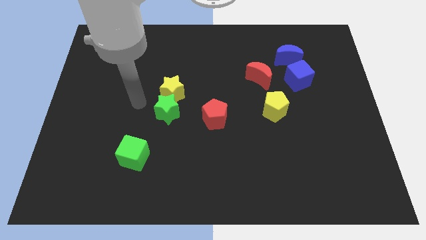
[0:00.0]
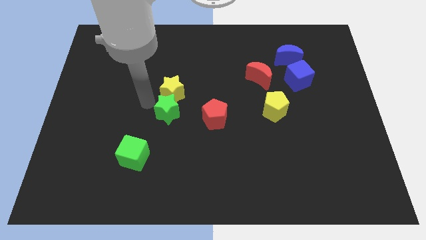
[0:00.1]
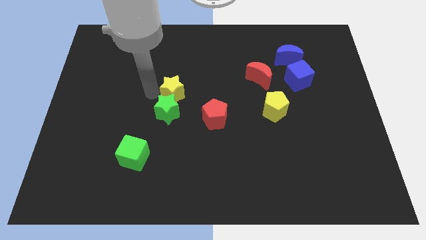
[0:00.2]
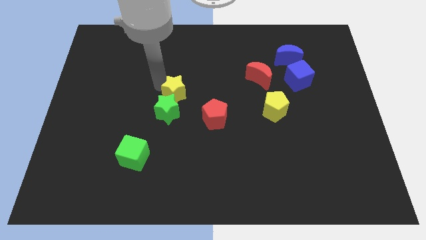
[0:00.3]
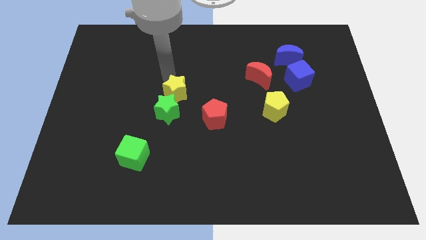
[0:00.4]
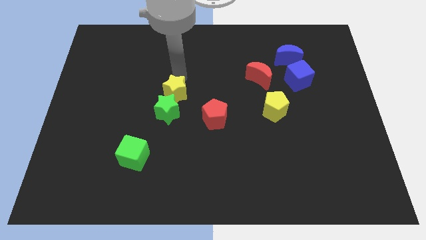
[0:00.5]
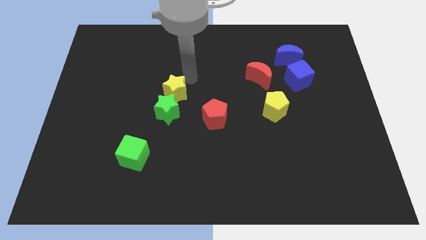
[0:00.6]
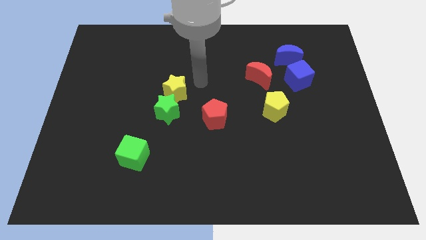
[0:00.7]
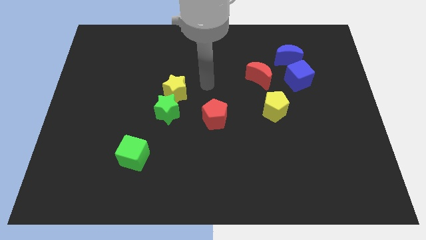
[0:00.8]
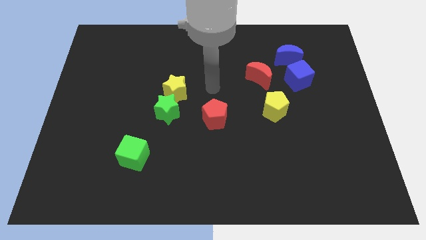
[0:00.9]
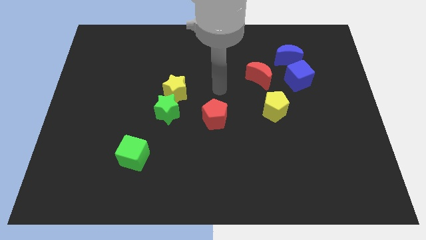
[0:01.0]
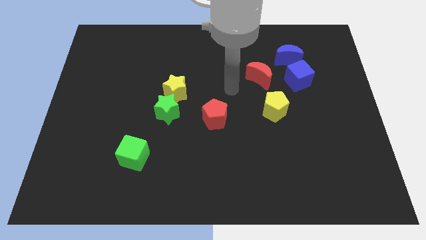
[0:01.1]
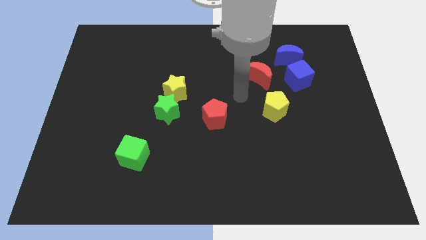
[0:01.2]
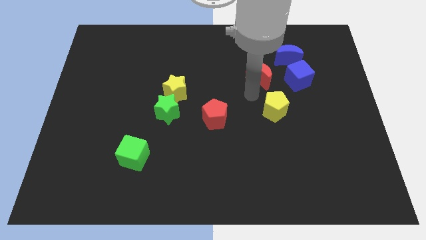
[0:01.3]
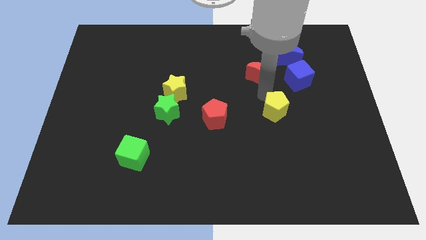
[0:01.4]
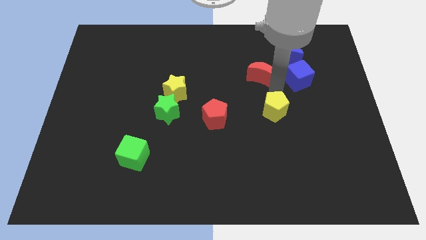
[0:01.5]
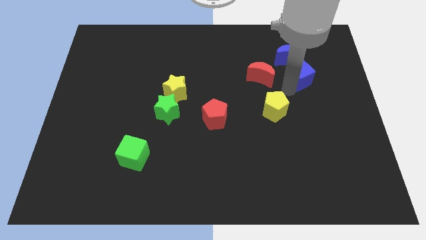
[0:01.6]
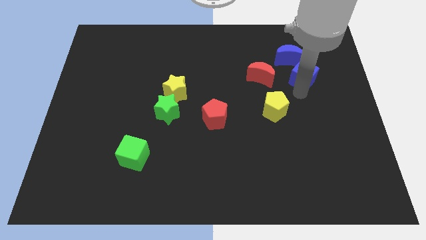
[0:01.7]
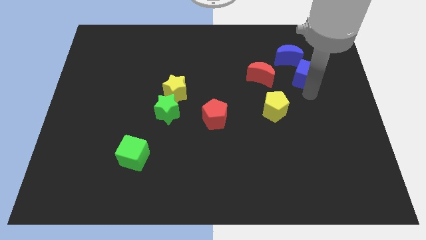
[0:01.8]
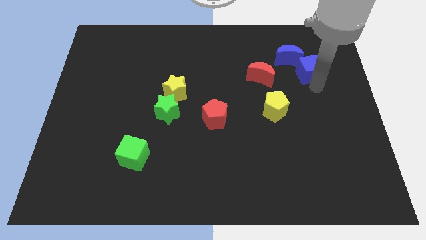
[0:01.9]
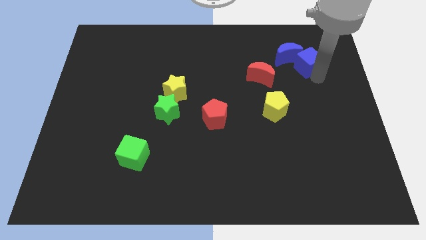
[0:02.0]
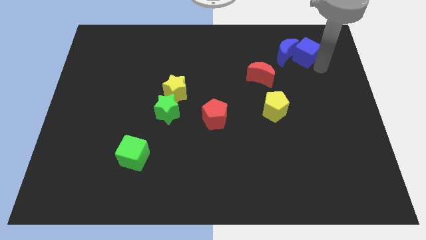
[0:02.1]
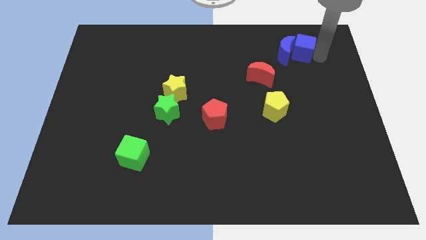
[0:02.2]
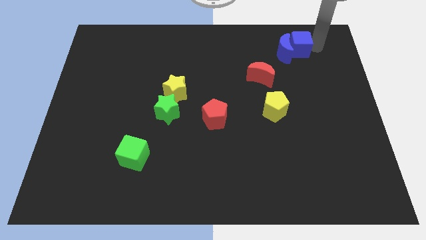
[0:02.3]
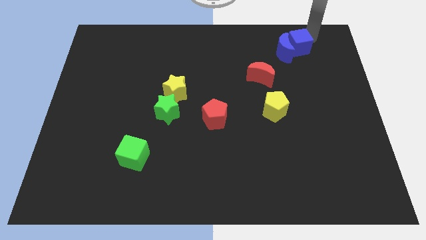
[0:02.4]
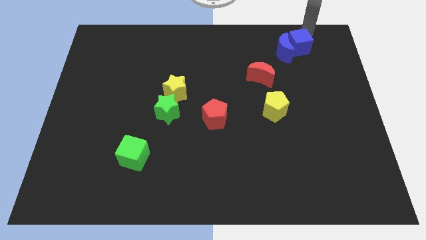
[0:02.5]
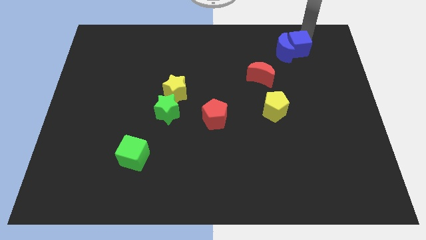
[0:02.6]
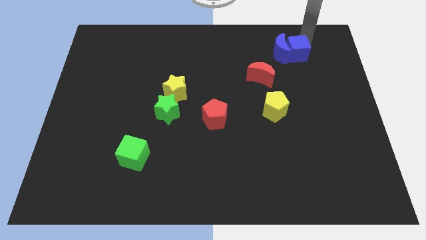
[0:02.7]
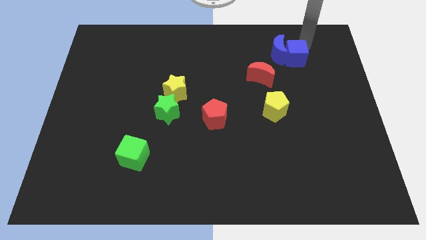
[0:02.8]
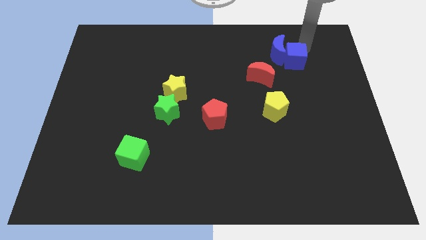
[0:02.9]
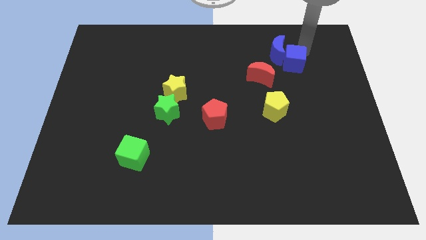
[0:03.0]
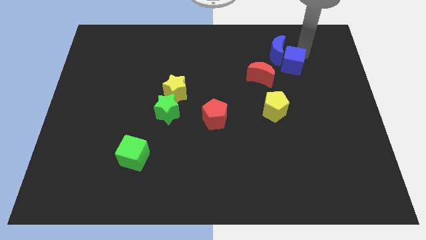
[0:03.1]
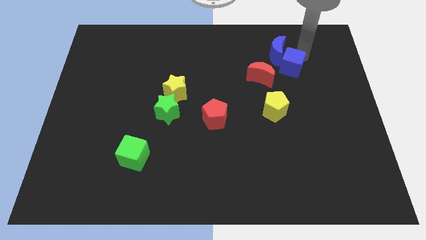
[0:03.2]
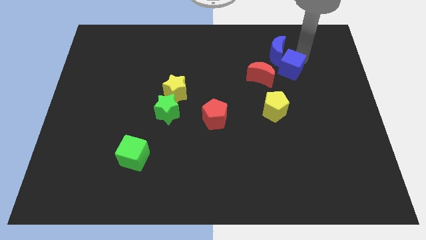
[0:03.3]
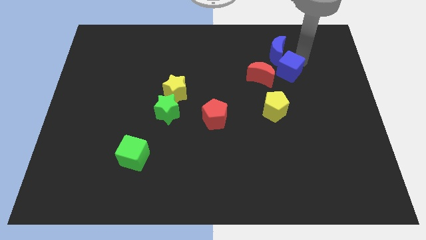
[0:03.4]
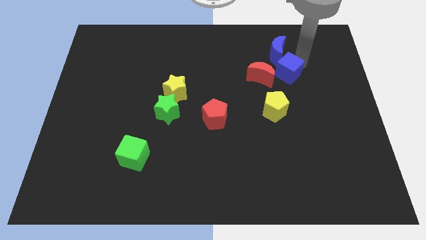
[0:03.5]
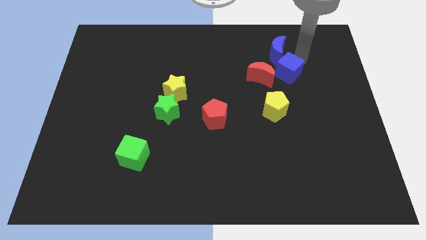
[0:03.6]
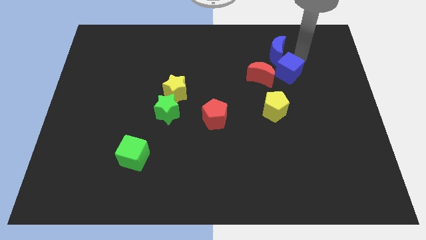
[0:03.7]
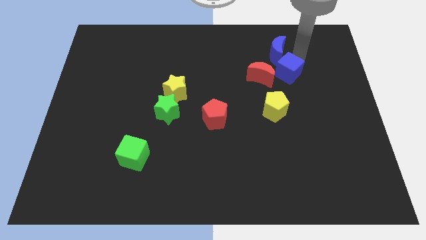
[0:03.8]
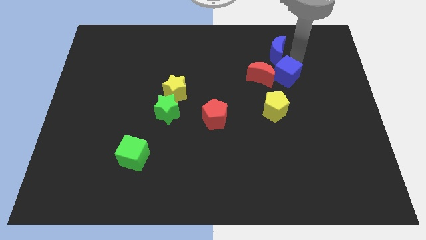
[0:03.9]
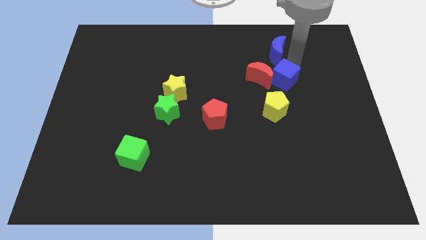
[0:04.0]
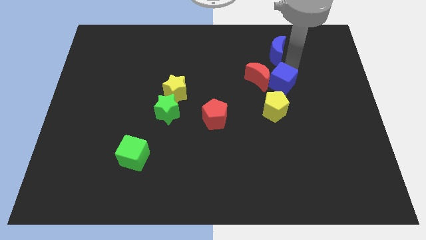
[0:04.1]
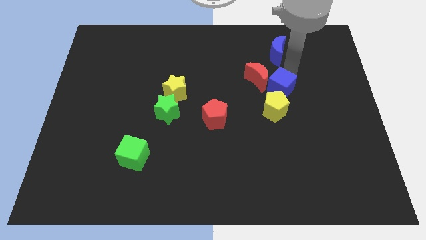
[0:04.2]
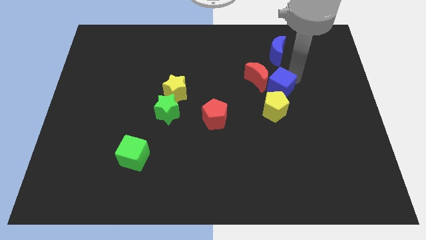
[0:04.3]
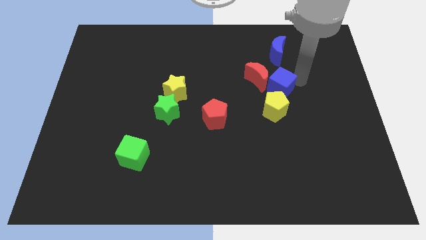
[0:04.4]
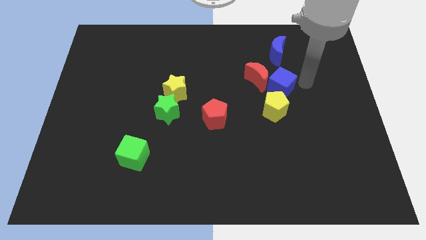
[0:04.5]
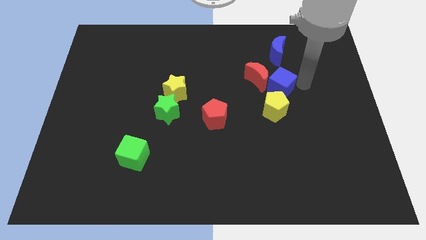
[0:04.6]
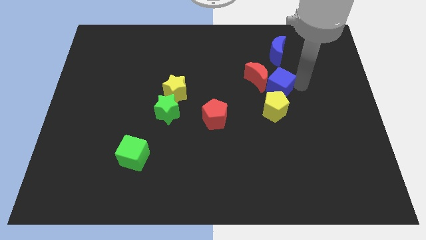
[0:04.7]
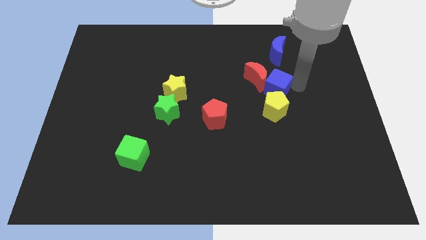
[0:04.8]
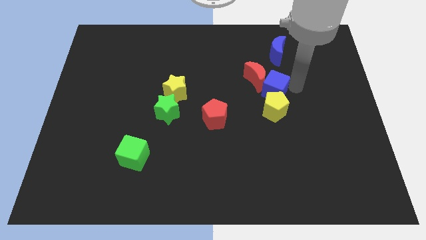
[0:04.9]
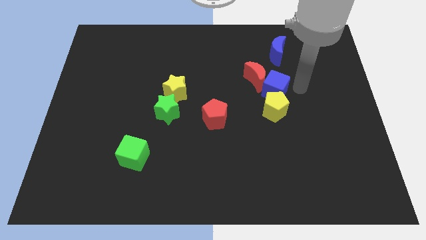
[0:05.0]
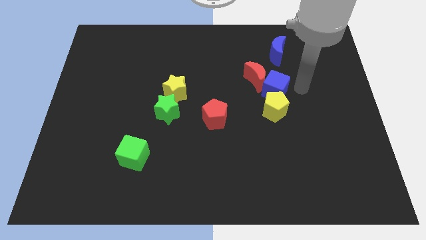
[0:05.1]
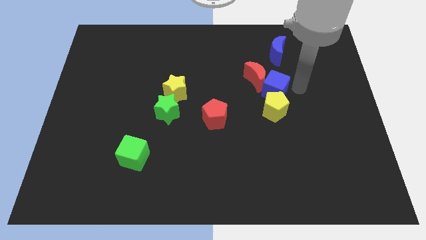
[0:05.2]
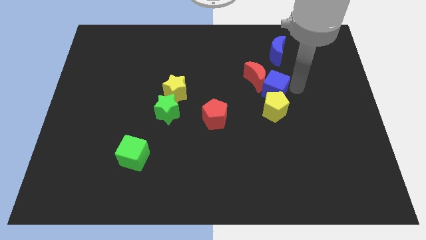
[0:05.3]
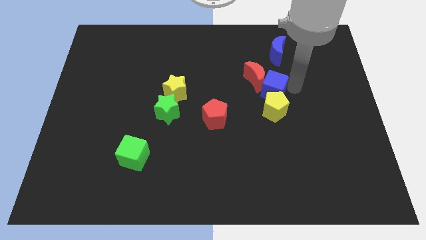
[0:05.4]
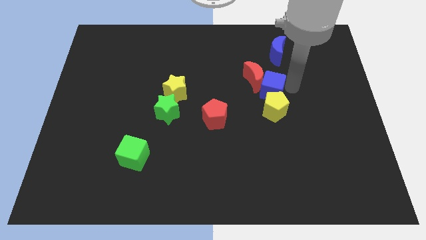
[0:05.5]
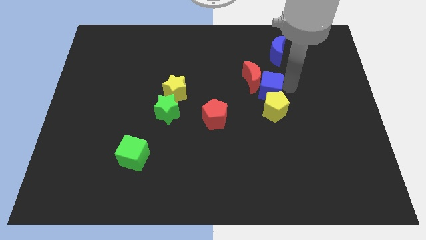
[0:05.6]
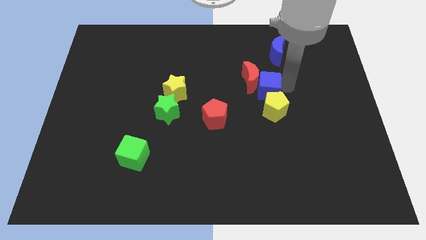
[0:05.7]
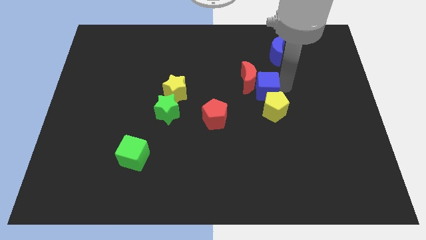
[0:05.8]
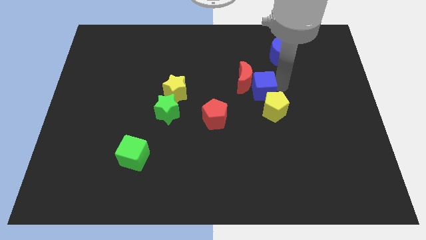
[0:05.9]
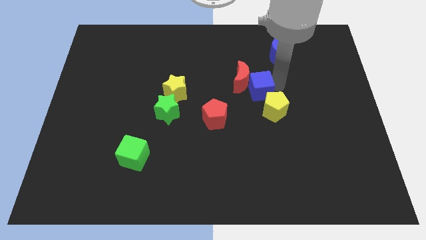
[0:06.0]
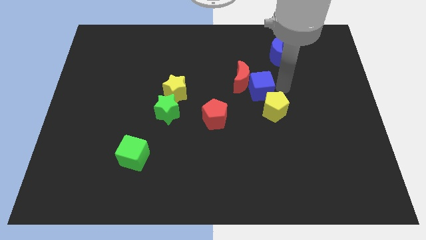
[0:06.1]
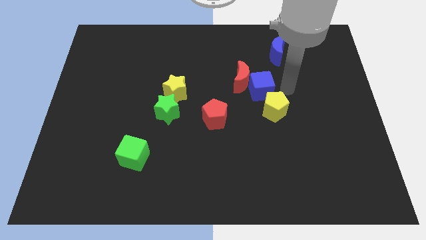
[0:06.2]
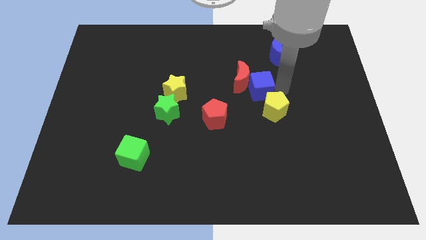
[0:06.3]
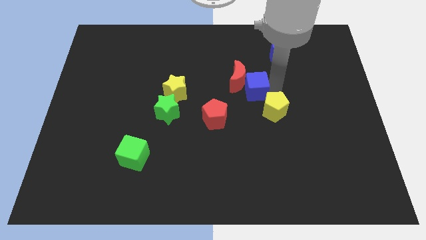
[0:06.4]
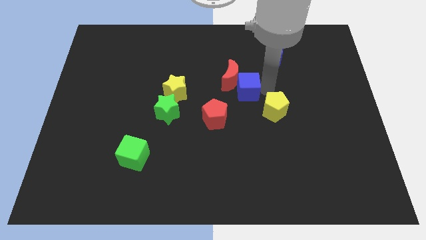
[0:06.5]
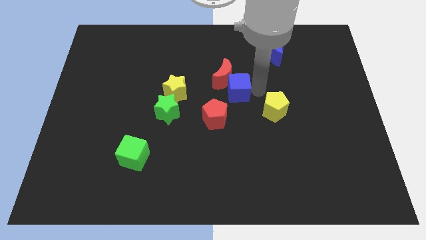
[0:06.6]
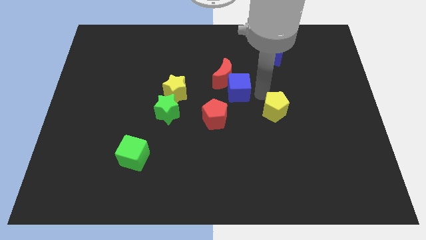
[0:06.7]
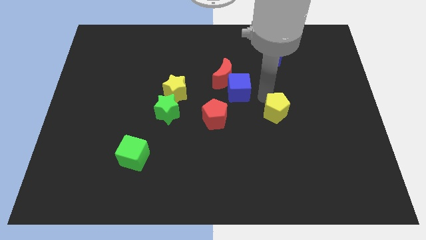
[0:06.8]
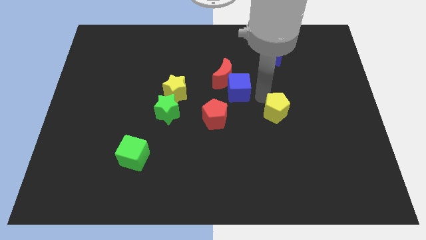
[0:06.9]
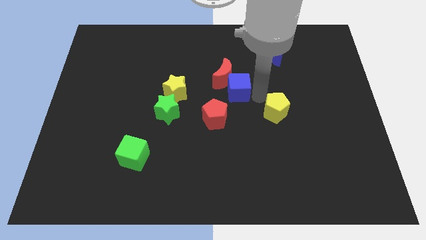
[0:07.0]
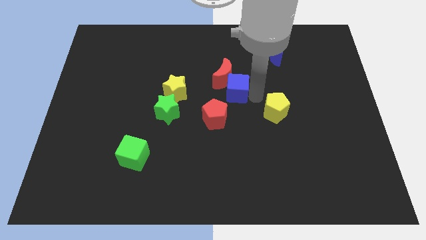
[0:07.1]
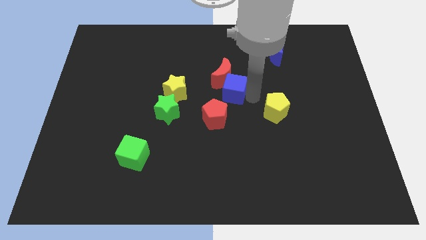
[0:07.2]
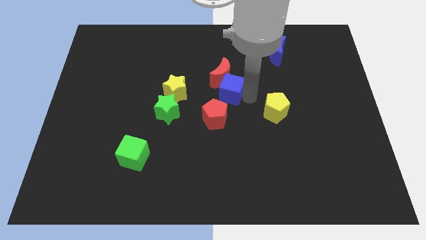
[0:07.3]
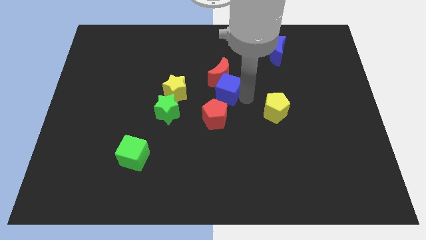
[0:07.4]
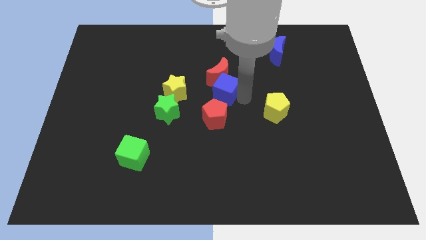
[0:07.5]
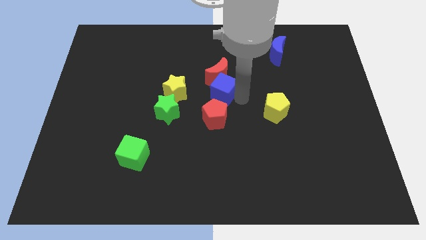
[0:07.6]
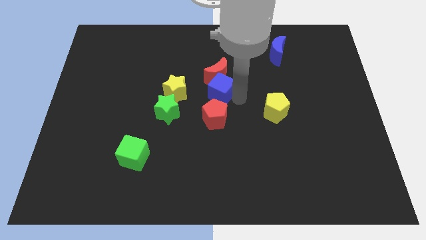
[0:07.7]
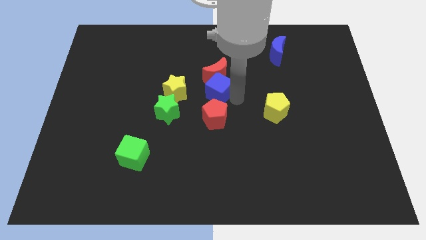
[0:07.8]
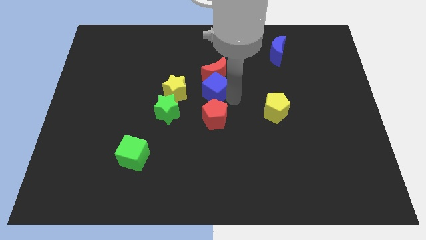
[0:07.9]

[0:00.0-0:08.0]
slide the blue cube left
